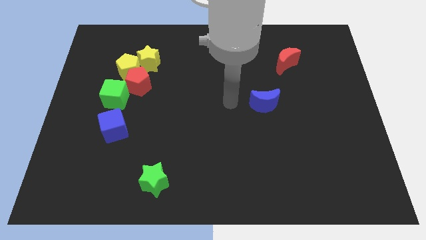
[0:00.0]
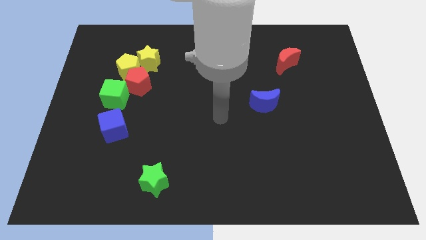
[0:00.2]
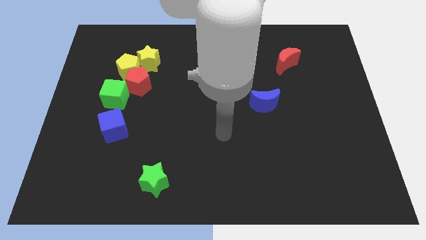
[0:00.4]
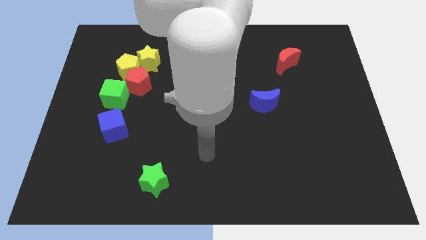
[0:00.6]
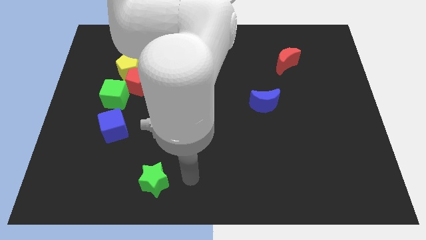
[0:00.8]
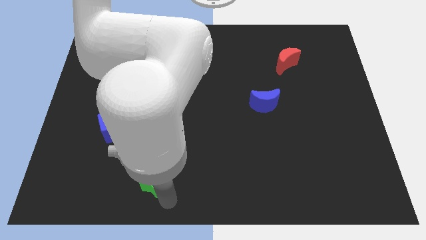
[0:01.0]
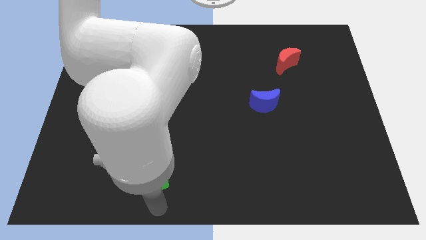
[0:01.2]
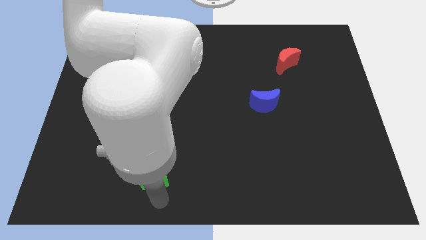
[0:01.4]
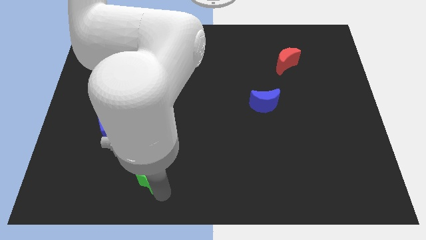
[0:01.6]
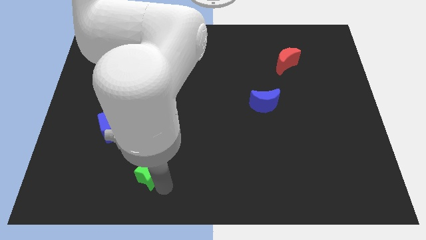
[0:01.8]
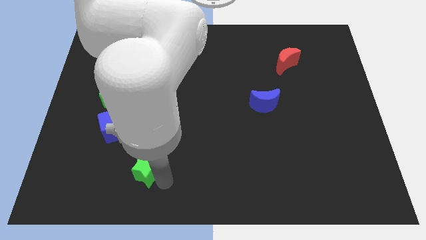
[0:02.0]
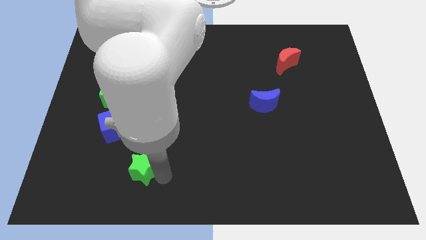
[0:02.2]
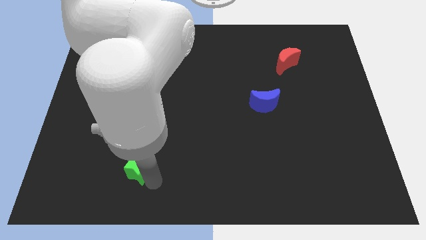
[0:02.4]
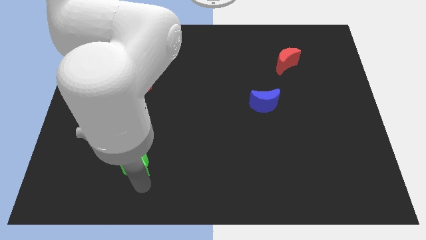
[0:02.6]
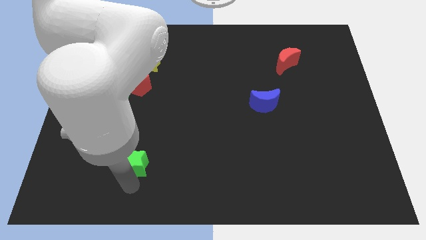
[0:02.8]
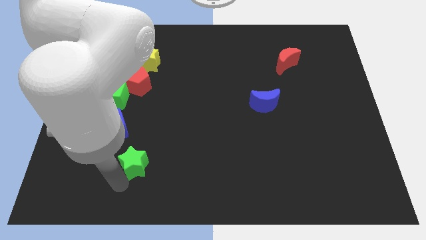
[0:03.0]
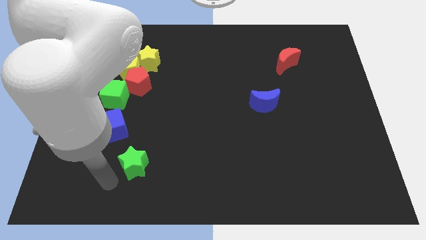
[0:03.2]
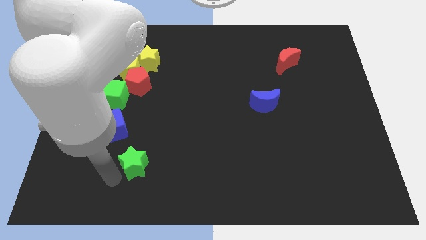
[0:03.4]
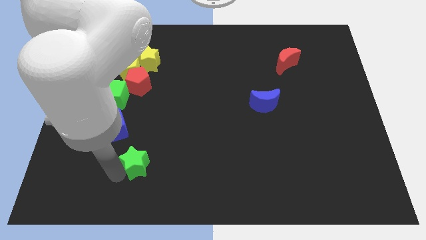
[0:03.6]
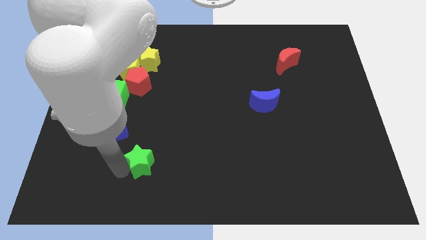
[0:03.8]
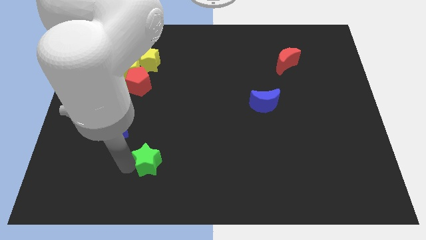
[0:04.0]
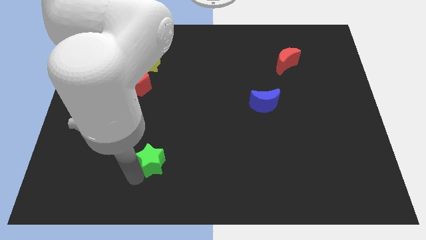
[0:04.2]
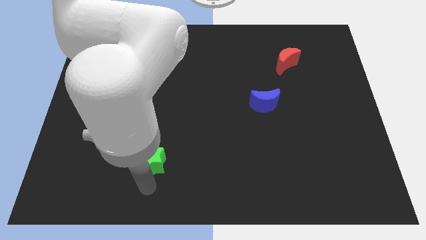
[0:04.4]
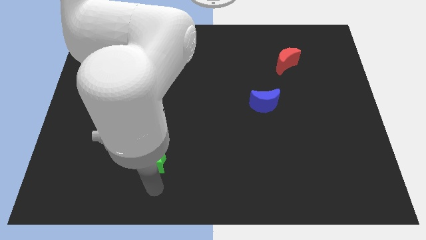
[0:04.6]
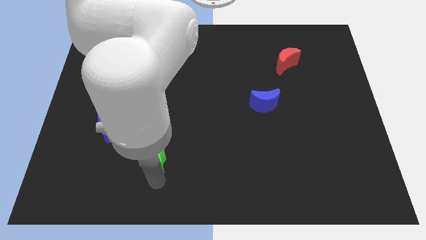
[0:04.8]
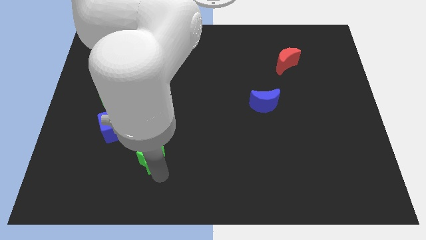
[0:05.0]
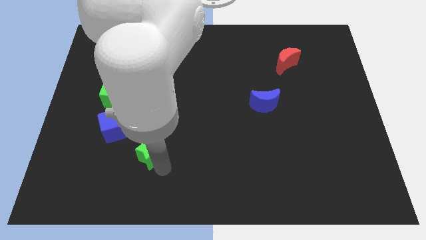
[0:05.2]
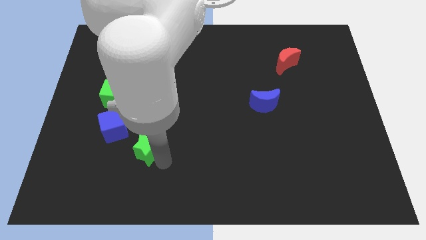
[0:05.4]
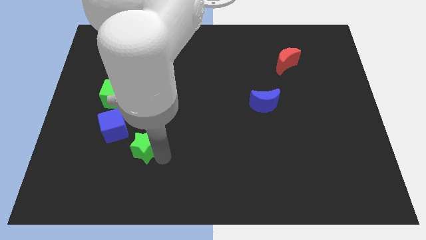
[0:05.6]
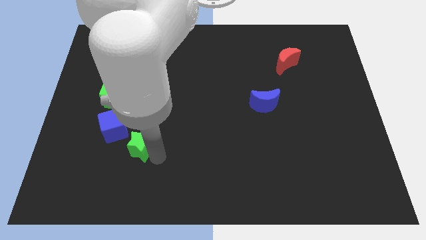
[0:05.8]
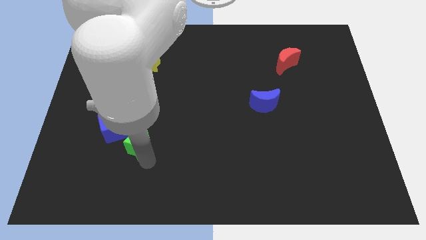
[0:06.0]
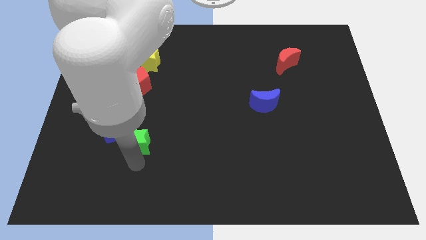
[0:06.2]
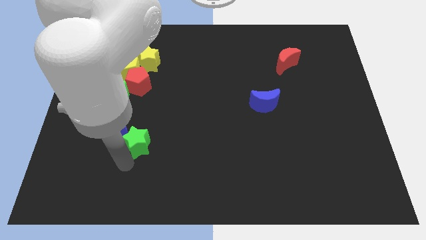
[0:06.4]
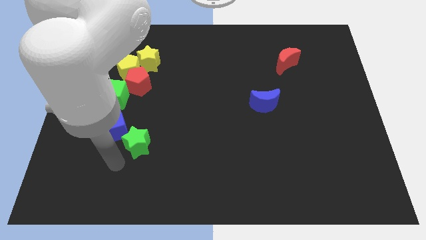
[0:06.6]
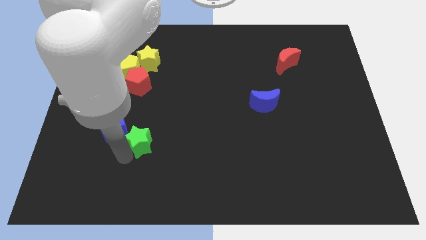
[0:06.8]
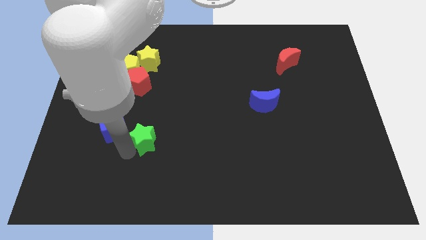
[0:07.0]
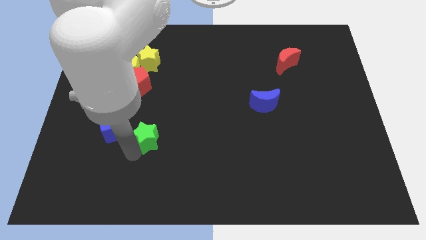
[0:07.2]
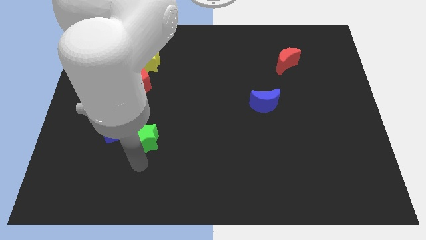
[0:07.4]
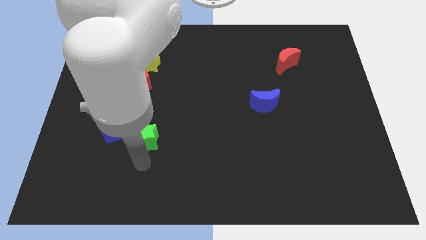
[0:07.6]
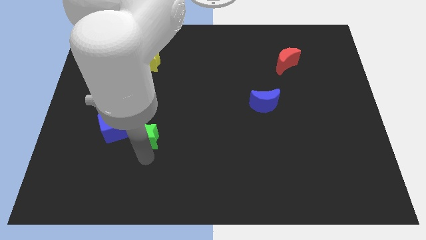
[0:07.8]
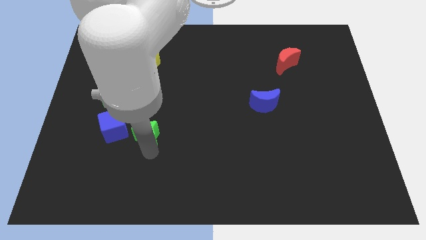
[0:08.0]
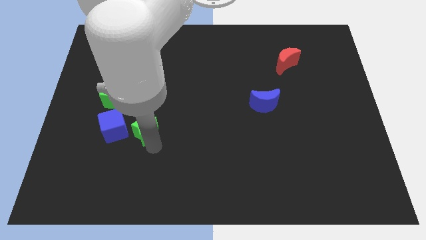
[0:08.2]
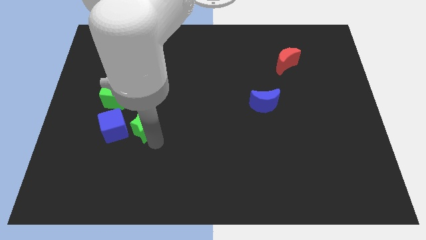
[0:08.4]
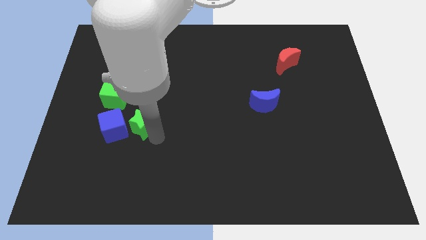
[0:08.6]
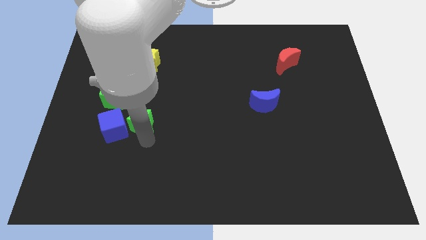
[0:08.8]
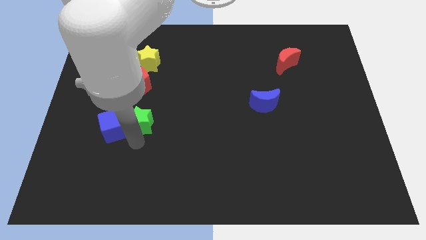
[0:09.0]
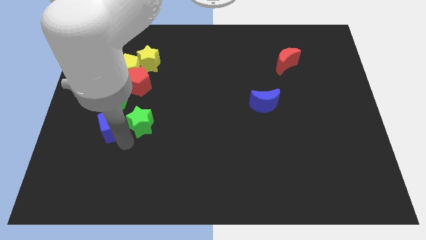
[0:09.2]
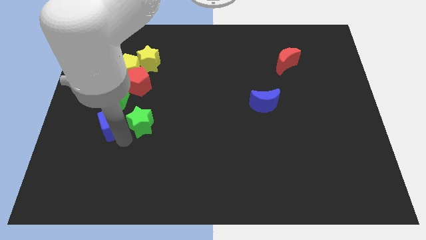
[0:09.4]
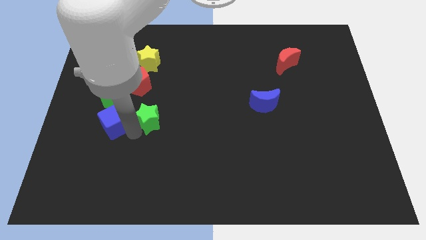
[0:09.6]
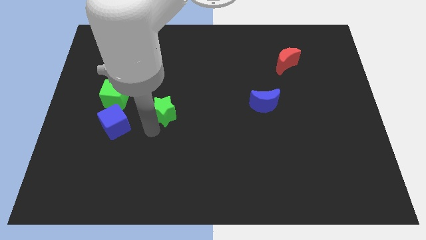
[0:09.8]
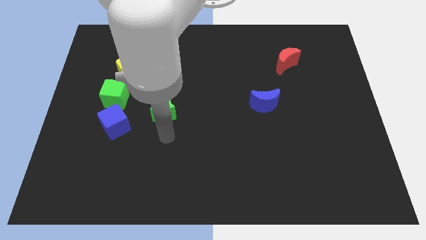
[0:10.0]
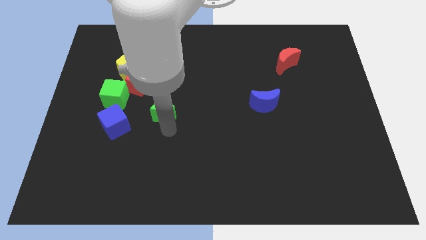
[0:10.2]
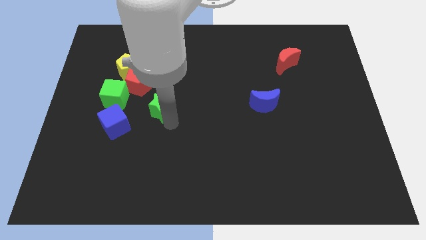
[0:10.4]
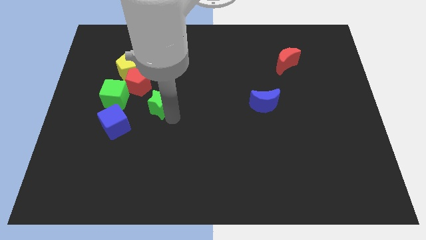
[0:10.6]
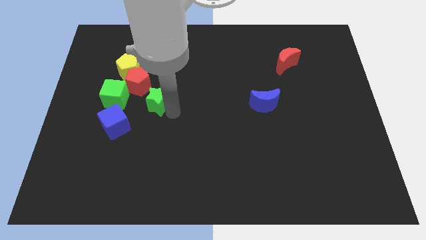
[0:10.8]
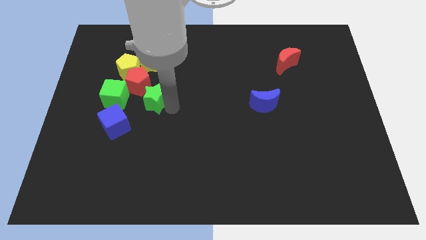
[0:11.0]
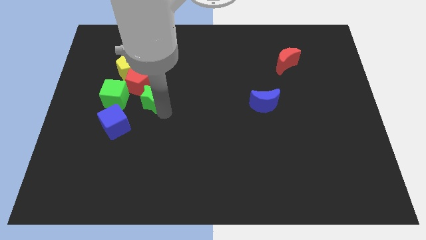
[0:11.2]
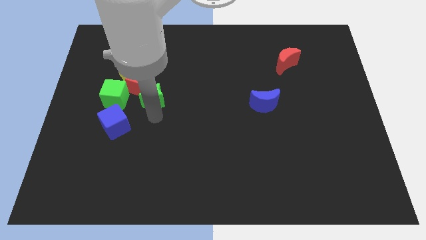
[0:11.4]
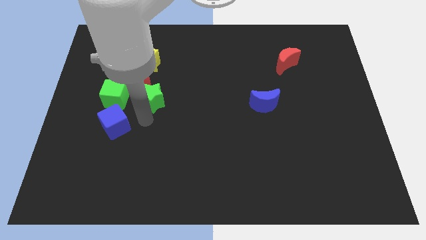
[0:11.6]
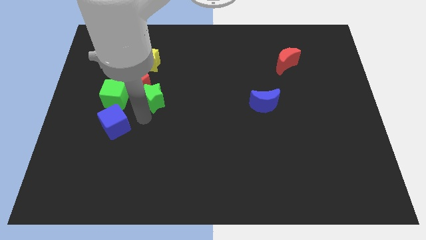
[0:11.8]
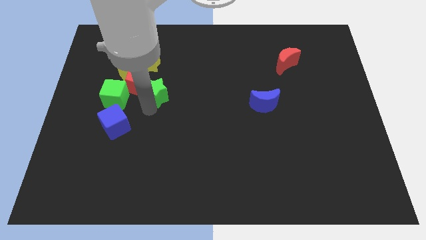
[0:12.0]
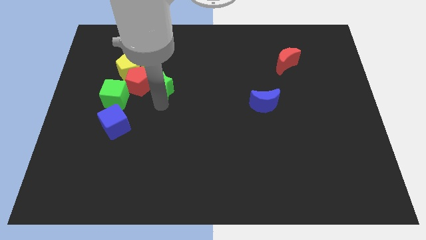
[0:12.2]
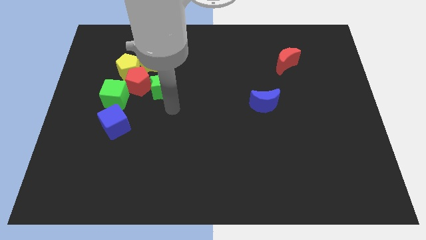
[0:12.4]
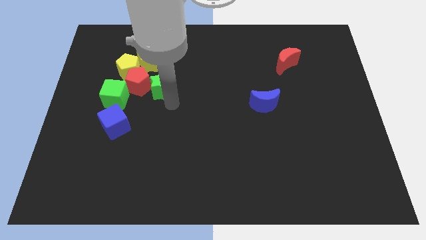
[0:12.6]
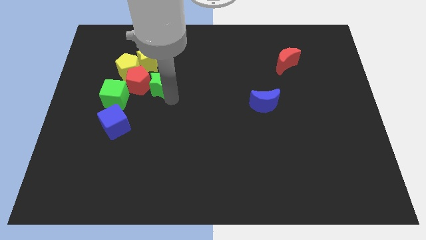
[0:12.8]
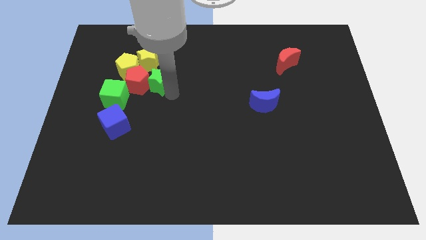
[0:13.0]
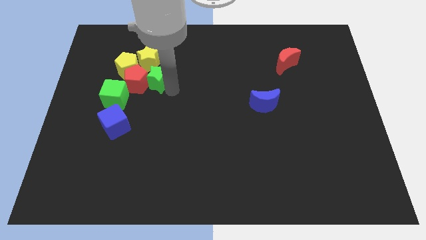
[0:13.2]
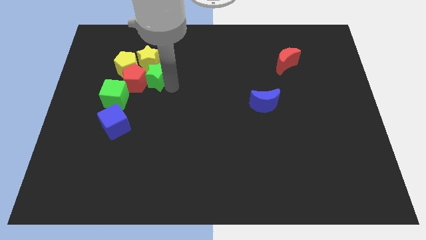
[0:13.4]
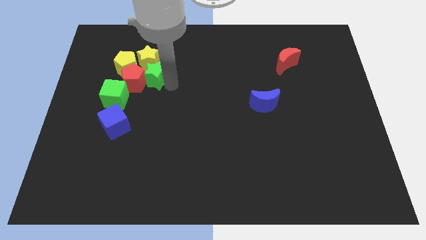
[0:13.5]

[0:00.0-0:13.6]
slide the green star next to the yellow star

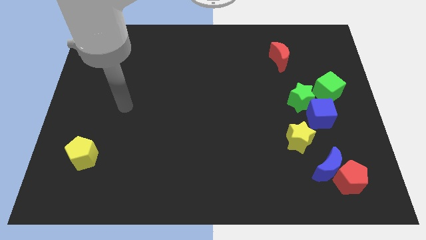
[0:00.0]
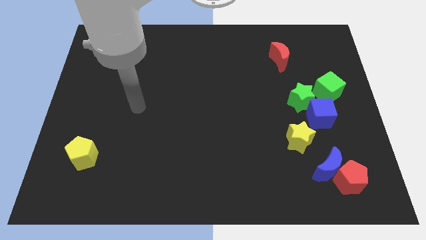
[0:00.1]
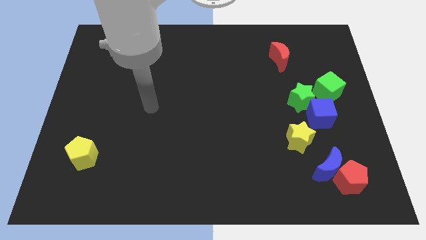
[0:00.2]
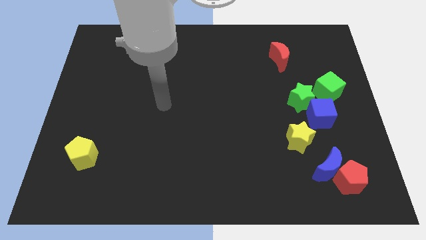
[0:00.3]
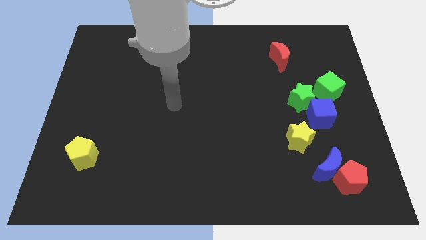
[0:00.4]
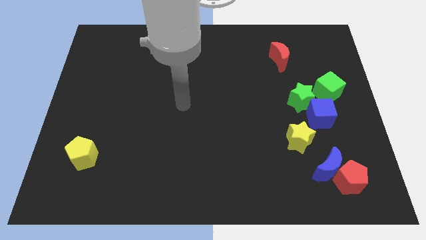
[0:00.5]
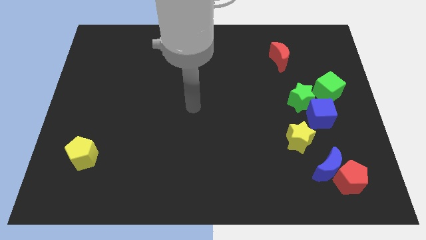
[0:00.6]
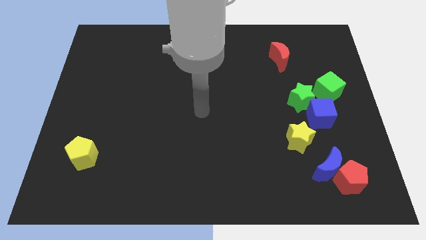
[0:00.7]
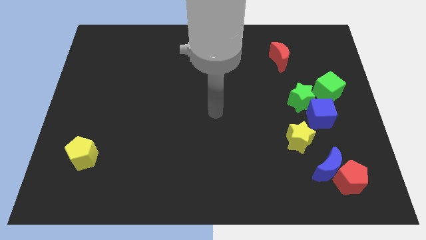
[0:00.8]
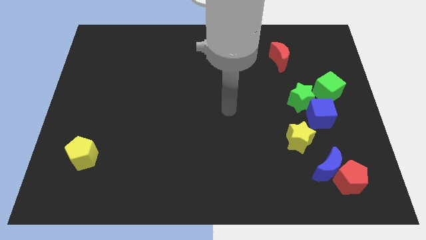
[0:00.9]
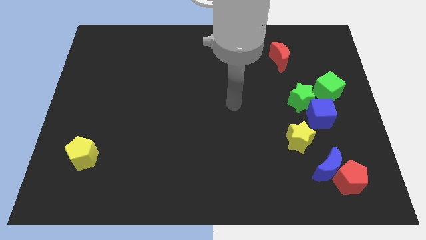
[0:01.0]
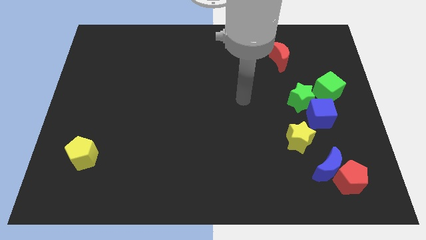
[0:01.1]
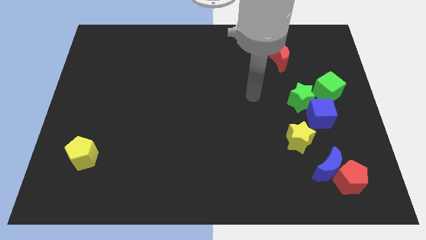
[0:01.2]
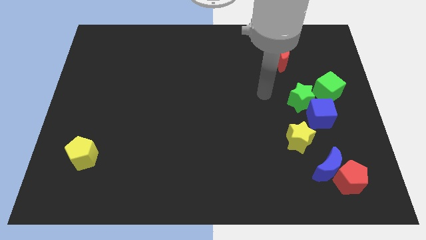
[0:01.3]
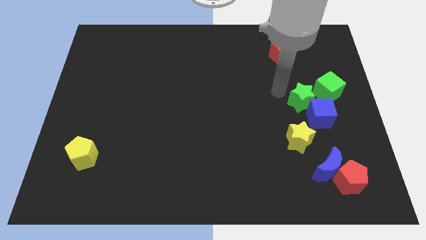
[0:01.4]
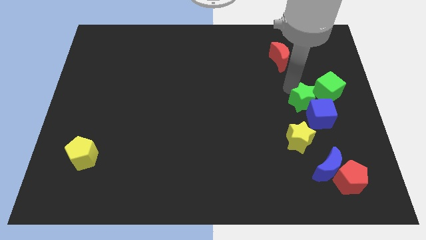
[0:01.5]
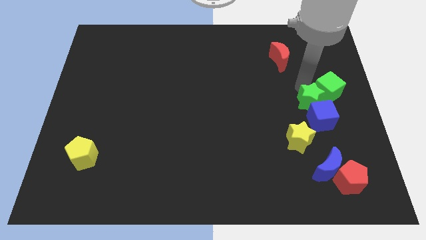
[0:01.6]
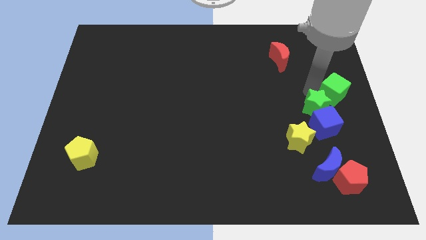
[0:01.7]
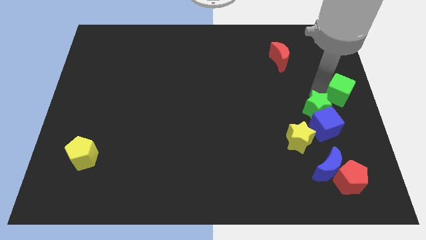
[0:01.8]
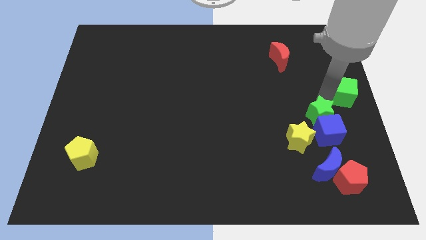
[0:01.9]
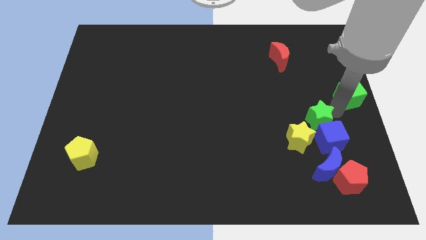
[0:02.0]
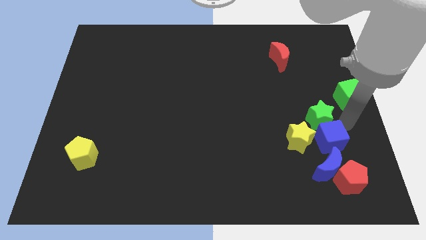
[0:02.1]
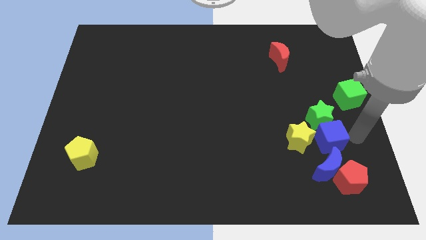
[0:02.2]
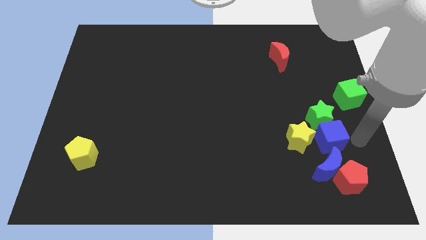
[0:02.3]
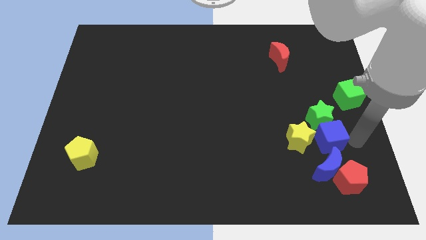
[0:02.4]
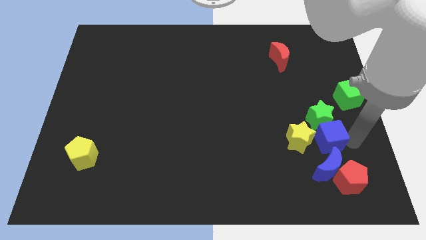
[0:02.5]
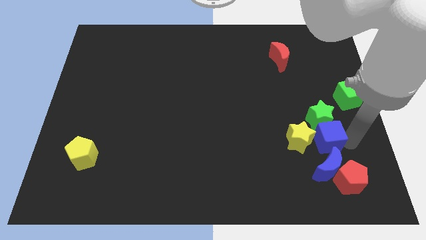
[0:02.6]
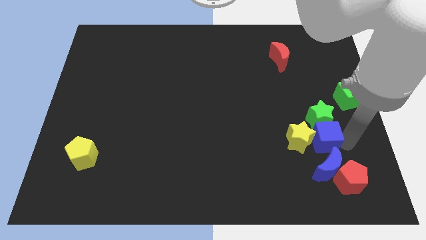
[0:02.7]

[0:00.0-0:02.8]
push the blue cube close to the yellow star
